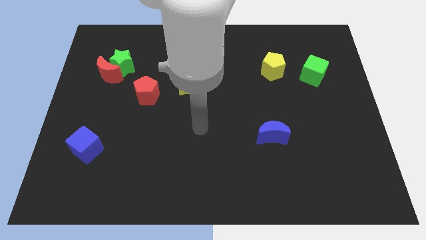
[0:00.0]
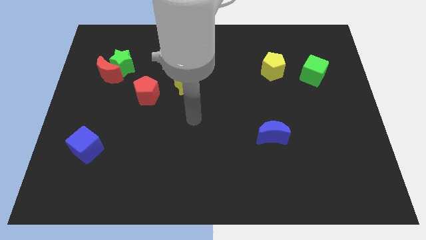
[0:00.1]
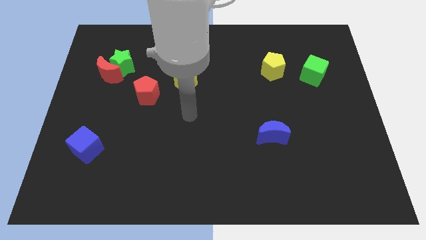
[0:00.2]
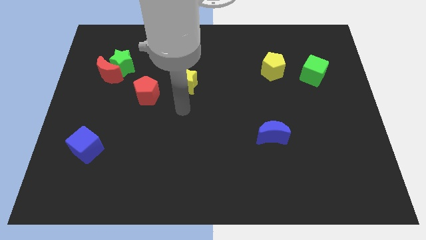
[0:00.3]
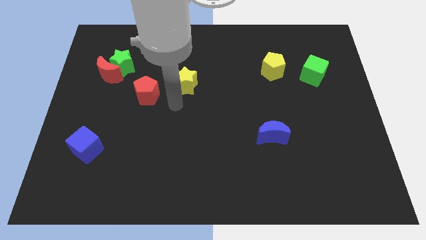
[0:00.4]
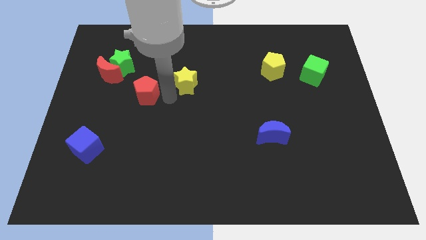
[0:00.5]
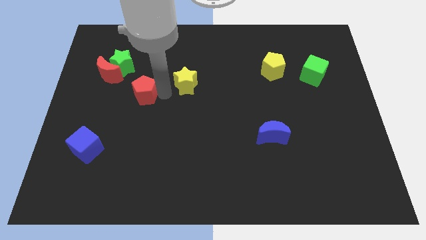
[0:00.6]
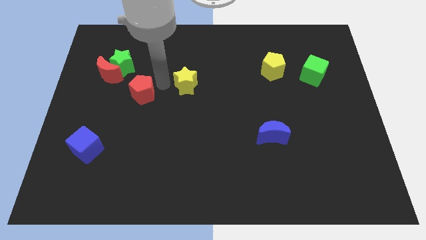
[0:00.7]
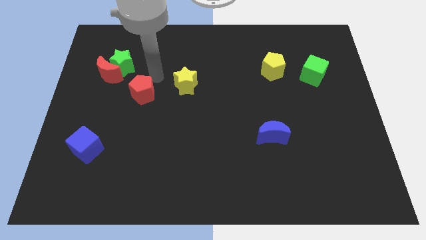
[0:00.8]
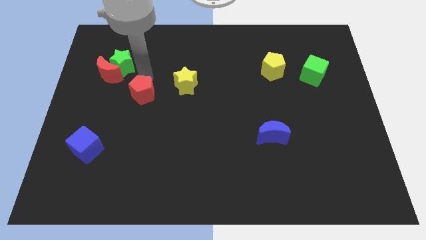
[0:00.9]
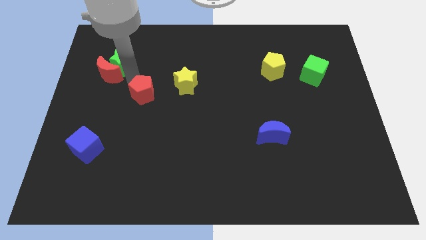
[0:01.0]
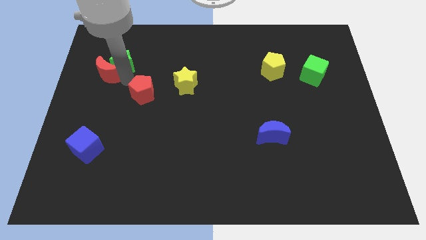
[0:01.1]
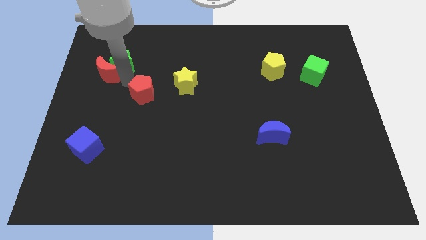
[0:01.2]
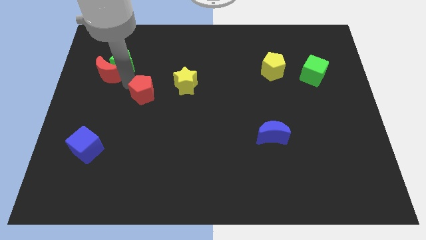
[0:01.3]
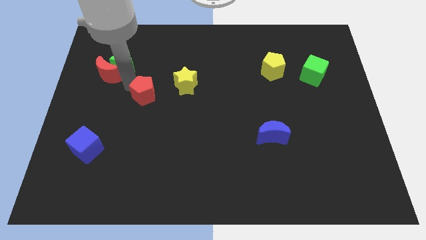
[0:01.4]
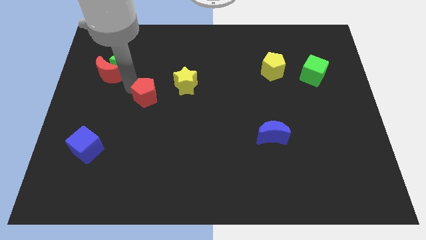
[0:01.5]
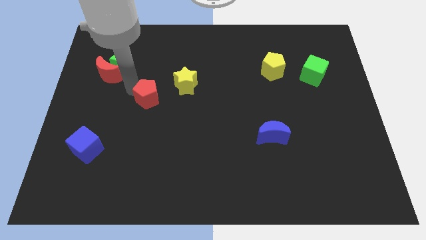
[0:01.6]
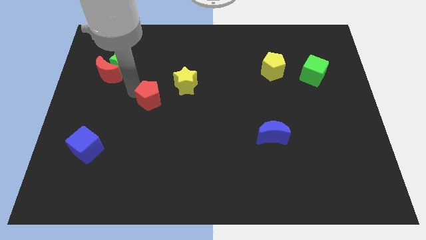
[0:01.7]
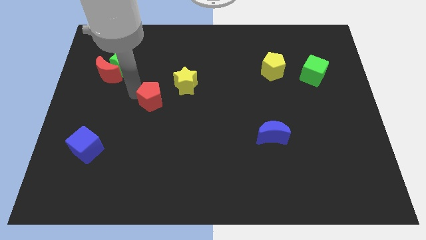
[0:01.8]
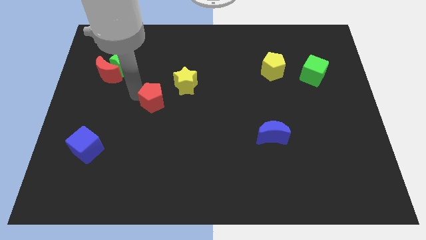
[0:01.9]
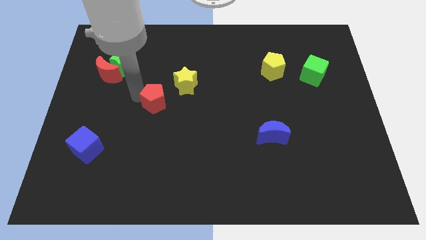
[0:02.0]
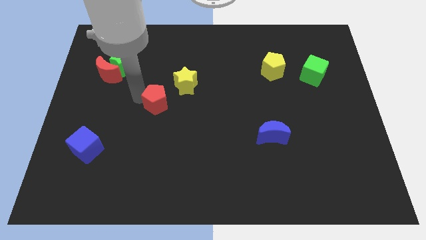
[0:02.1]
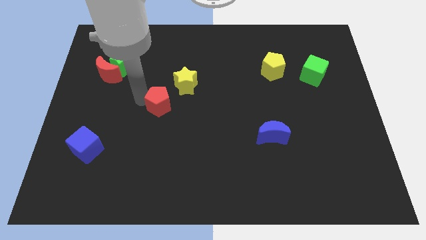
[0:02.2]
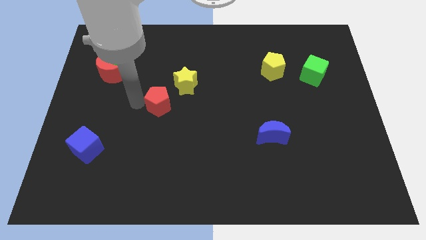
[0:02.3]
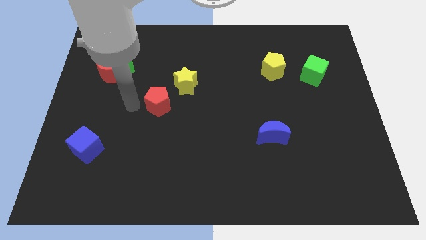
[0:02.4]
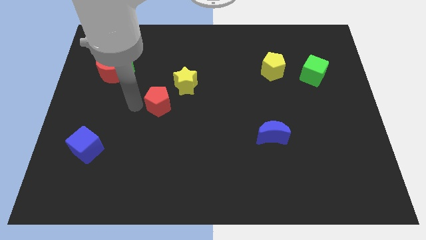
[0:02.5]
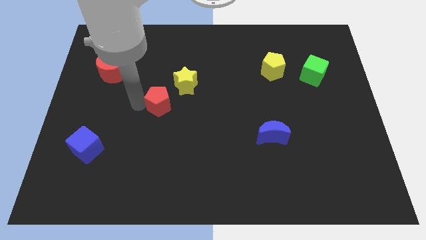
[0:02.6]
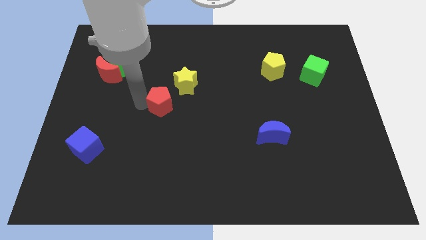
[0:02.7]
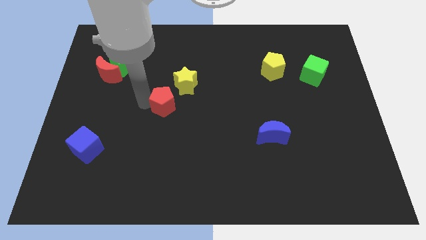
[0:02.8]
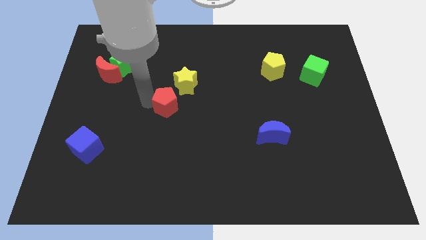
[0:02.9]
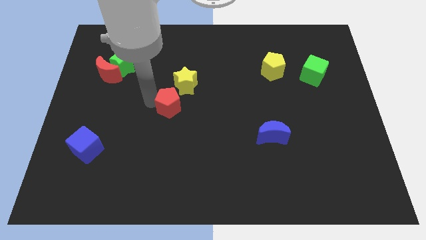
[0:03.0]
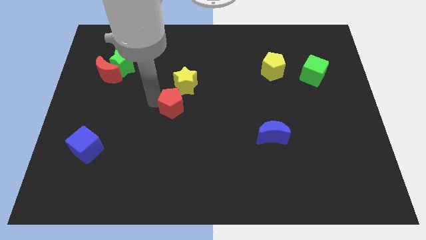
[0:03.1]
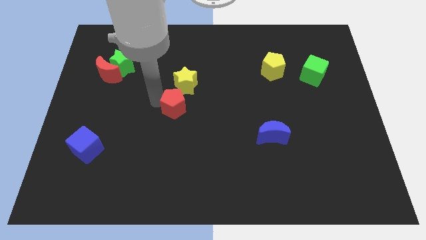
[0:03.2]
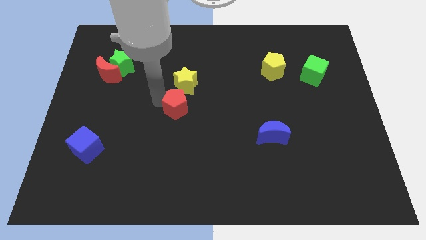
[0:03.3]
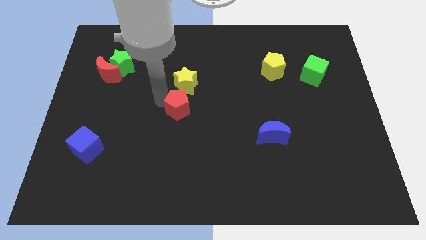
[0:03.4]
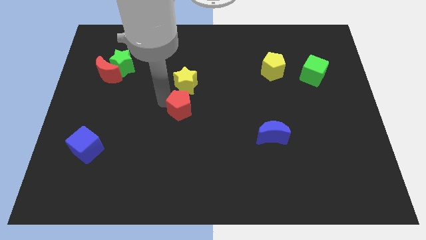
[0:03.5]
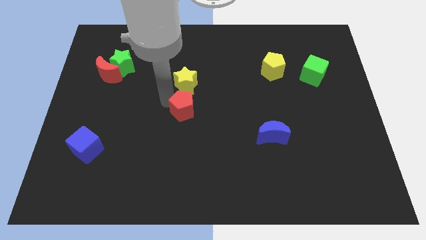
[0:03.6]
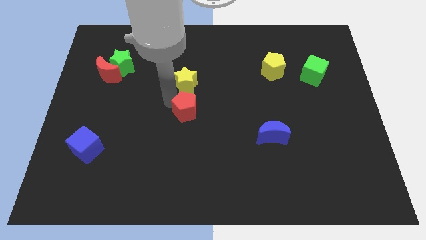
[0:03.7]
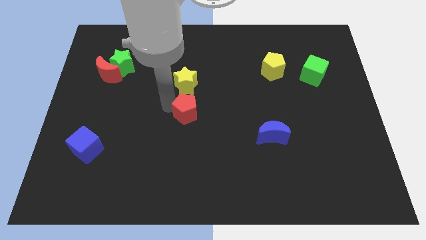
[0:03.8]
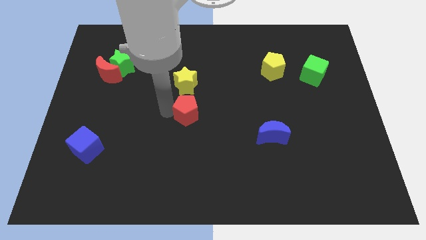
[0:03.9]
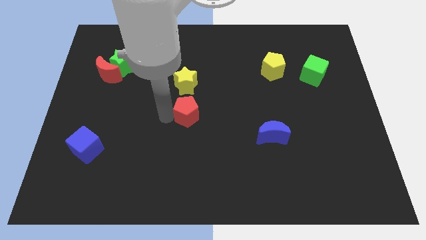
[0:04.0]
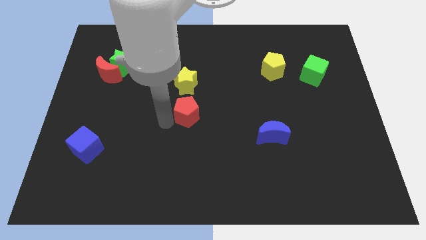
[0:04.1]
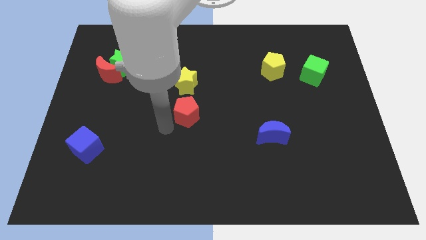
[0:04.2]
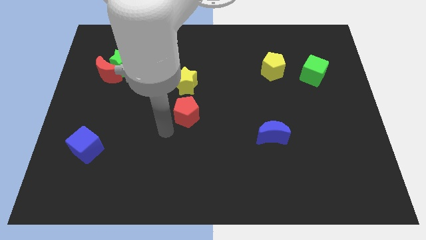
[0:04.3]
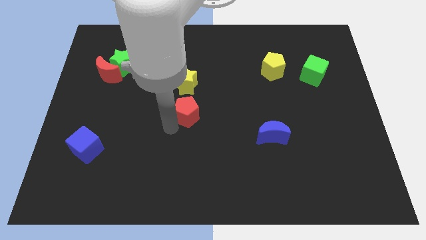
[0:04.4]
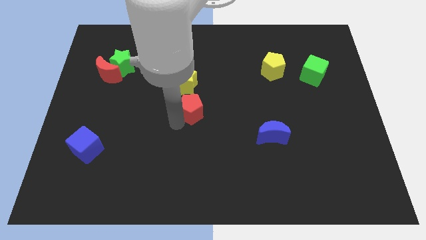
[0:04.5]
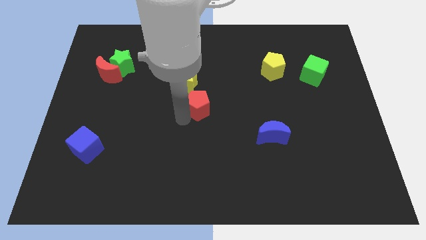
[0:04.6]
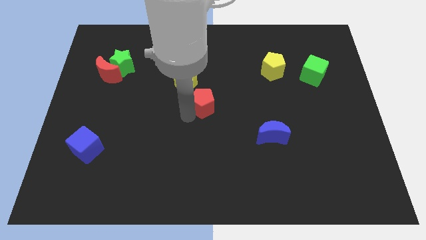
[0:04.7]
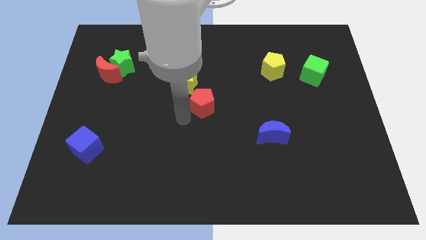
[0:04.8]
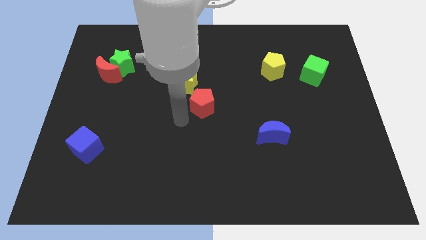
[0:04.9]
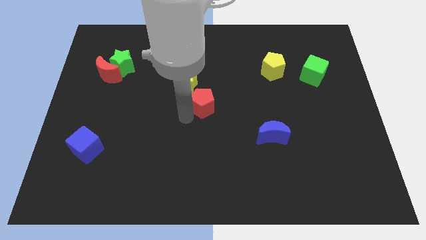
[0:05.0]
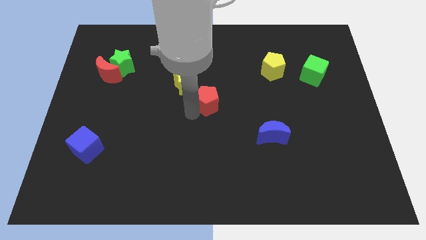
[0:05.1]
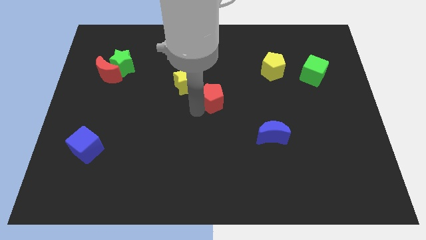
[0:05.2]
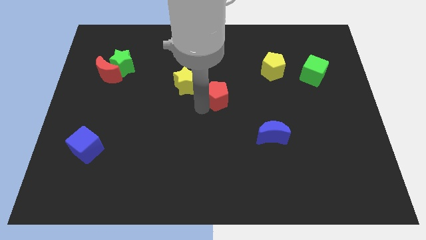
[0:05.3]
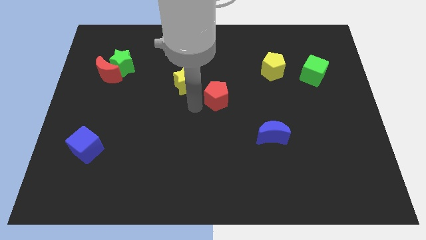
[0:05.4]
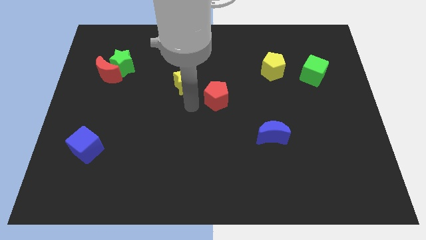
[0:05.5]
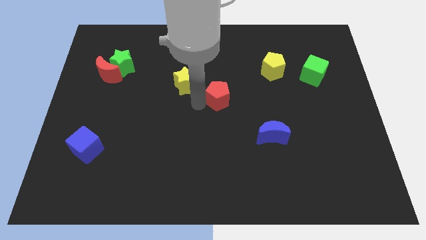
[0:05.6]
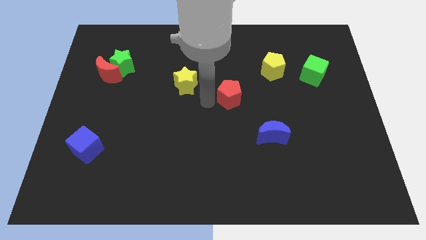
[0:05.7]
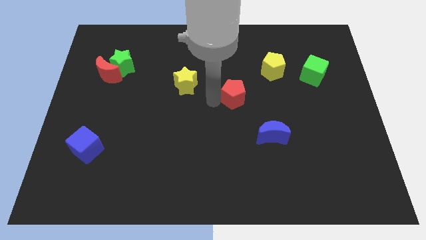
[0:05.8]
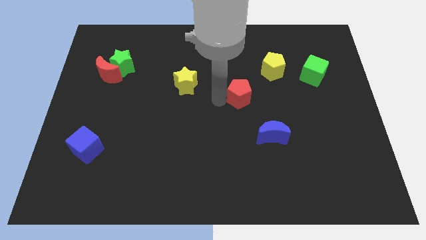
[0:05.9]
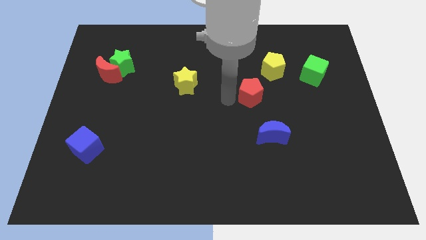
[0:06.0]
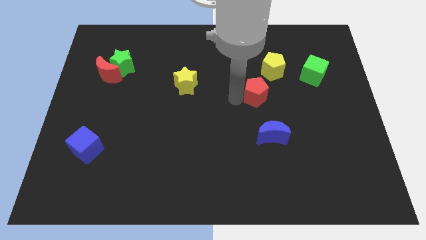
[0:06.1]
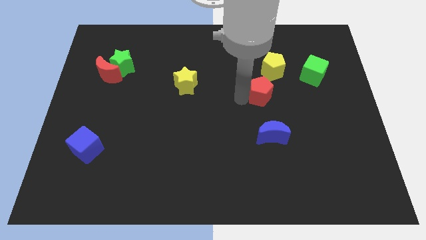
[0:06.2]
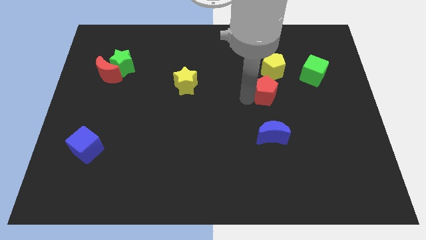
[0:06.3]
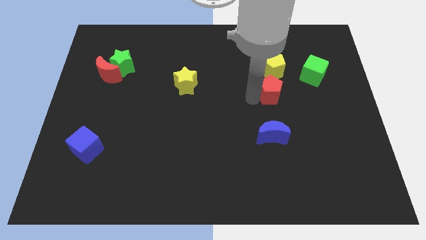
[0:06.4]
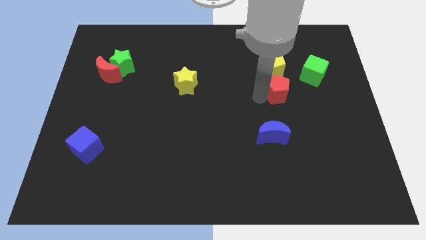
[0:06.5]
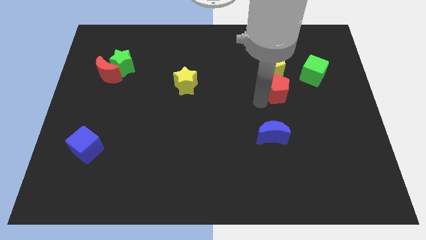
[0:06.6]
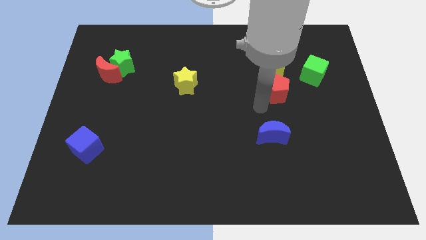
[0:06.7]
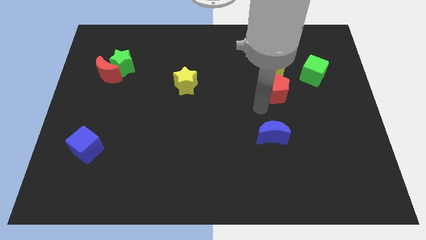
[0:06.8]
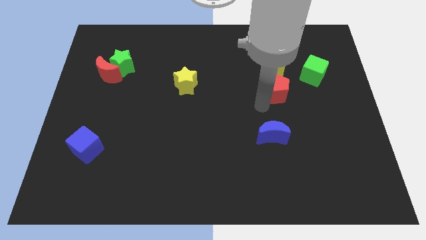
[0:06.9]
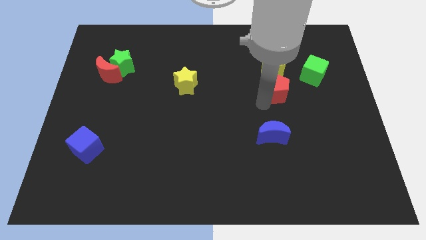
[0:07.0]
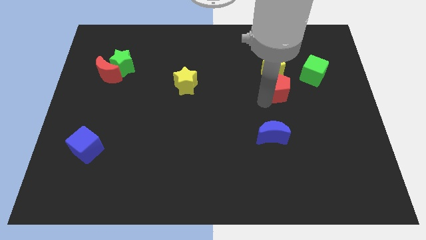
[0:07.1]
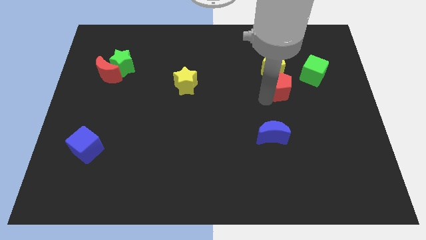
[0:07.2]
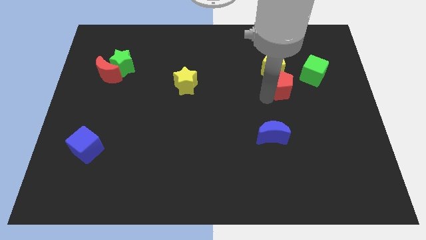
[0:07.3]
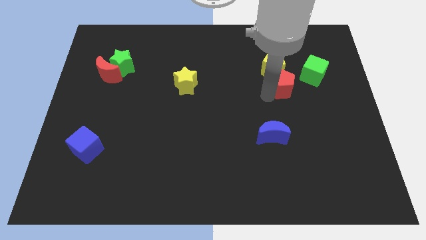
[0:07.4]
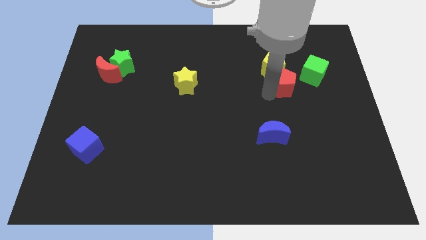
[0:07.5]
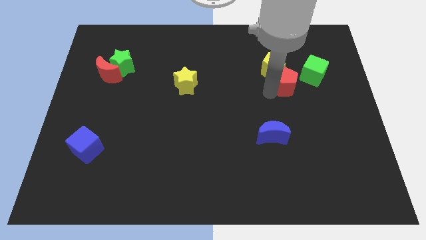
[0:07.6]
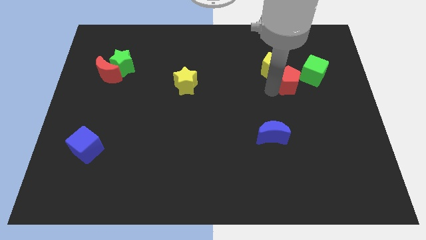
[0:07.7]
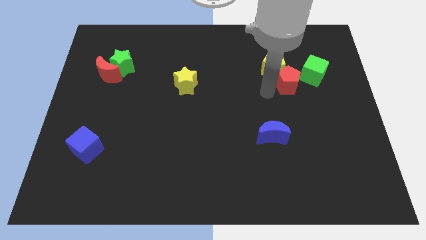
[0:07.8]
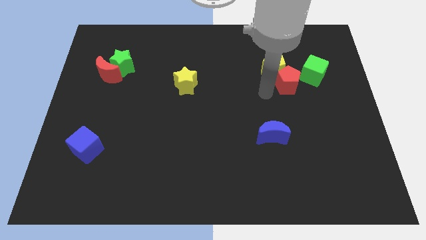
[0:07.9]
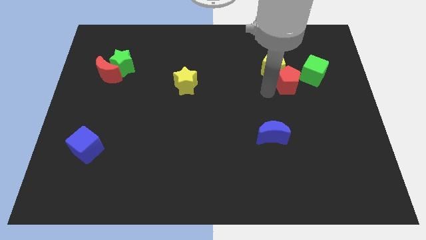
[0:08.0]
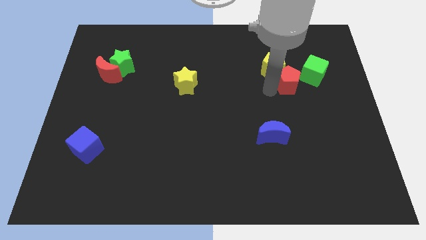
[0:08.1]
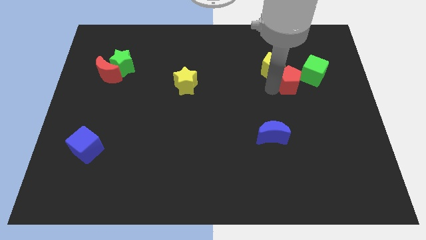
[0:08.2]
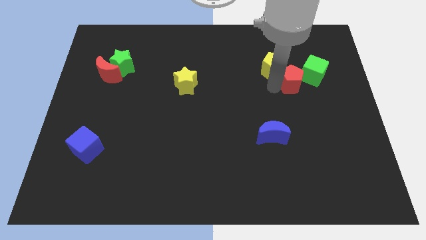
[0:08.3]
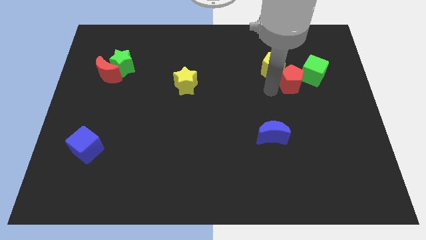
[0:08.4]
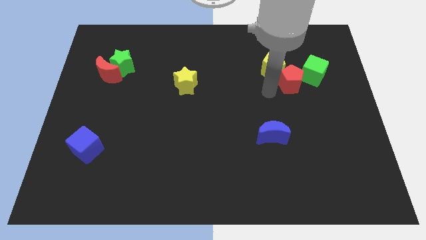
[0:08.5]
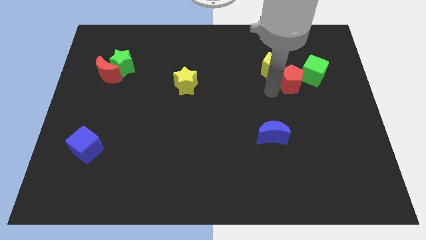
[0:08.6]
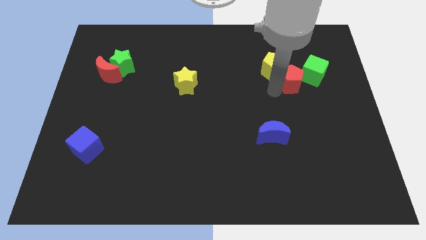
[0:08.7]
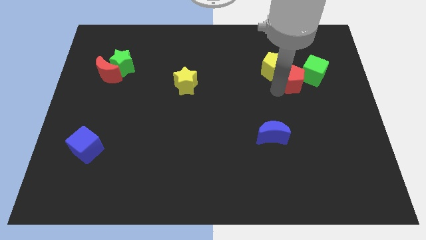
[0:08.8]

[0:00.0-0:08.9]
push the red pentagon next to the green cube
